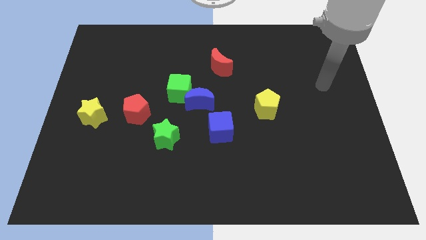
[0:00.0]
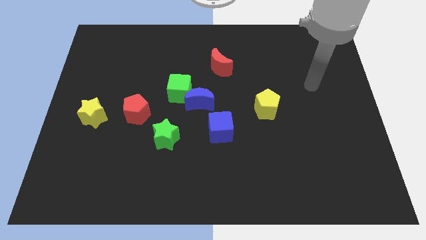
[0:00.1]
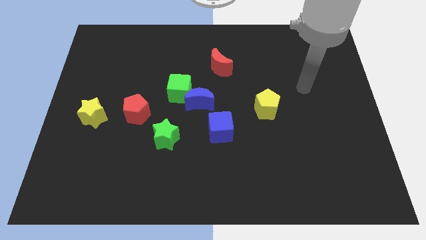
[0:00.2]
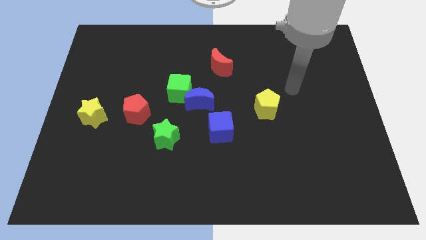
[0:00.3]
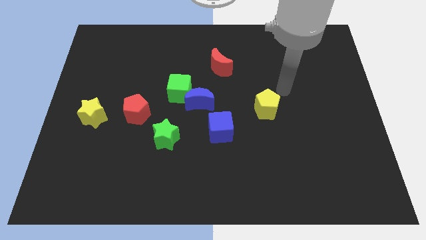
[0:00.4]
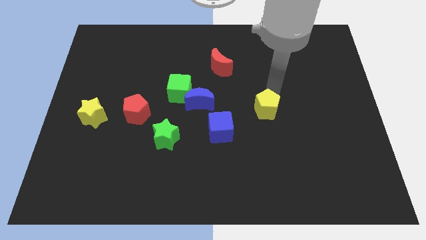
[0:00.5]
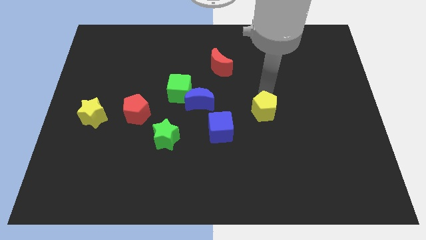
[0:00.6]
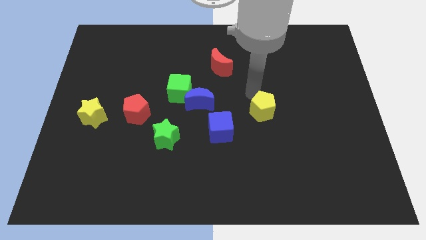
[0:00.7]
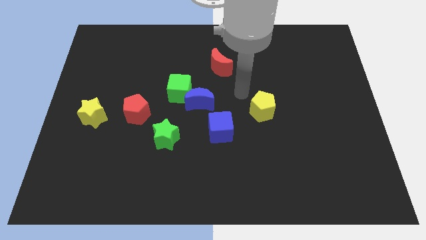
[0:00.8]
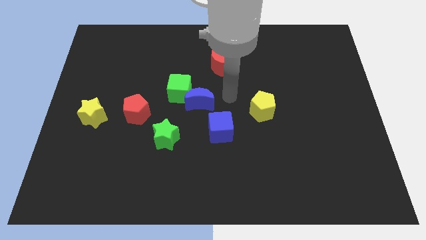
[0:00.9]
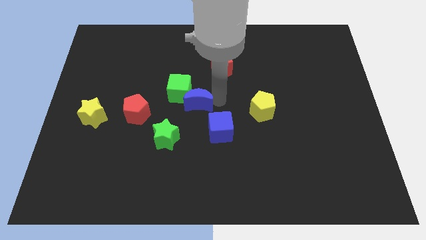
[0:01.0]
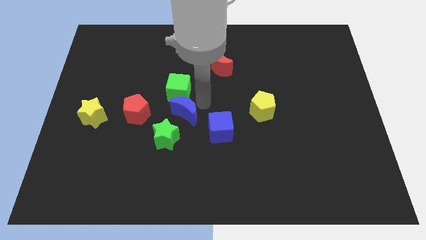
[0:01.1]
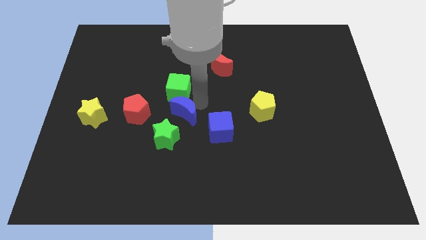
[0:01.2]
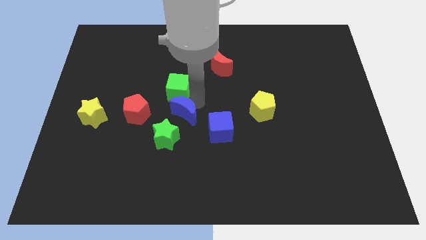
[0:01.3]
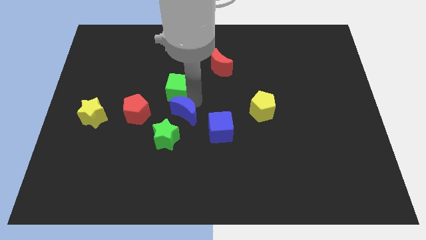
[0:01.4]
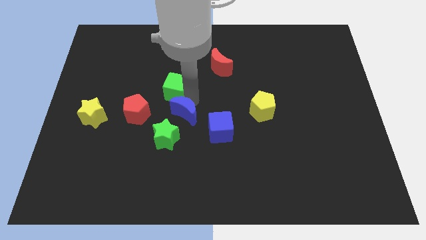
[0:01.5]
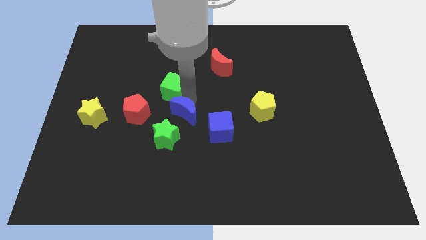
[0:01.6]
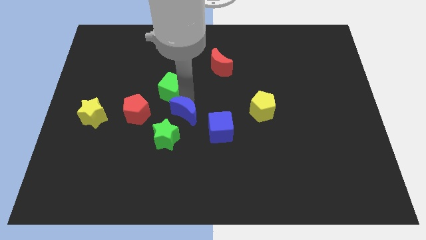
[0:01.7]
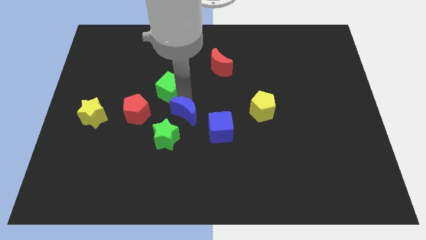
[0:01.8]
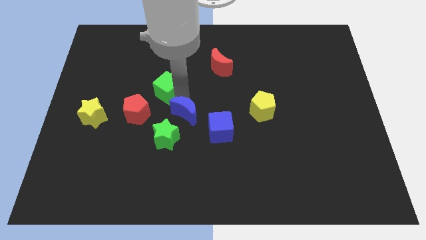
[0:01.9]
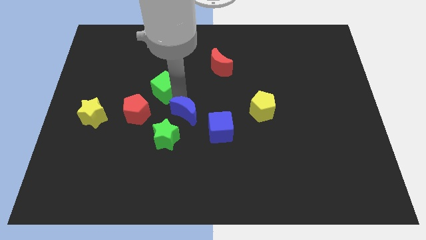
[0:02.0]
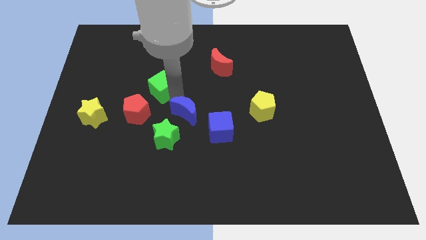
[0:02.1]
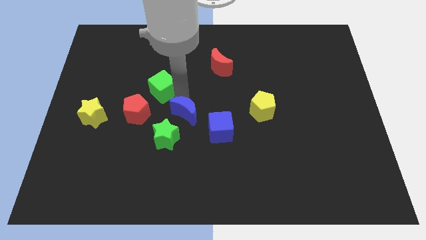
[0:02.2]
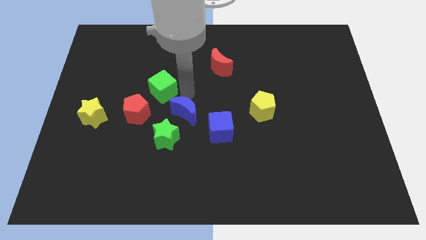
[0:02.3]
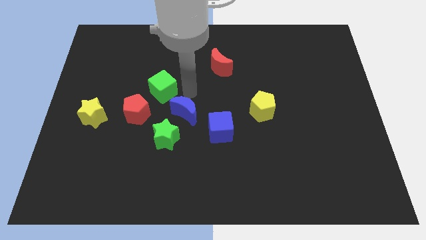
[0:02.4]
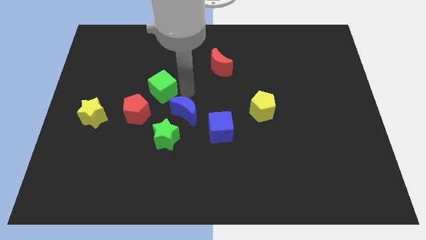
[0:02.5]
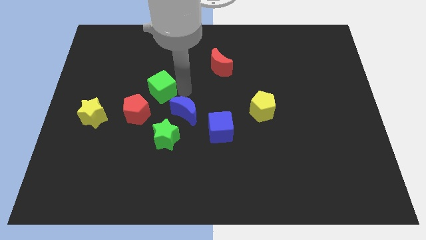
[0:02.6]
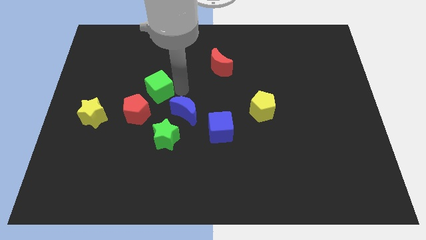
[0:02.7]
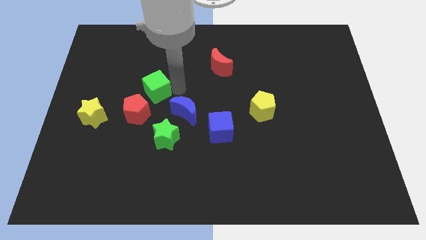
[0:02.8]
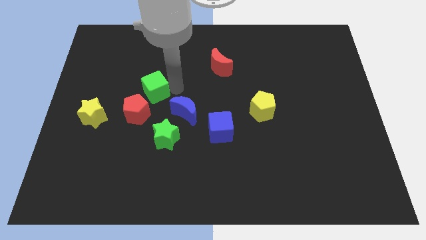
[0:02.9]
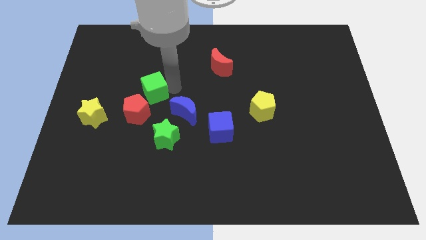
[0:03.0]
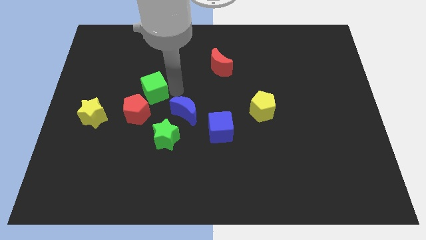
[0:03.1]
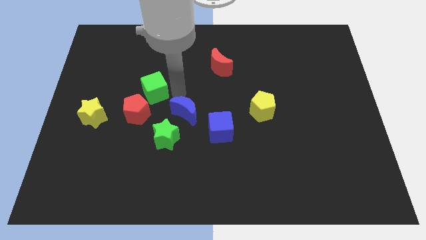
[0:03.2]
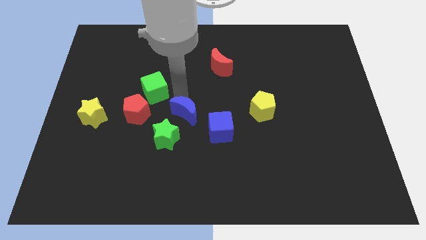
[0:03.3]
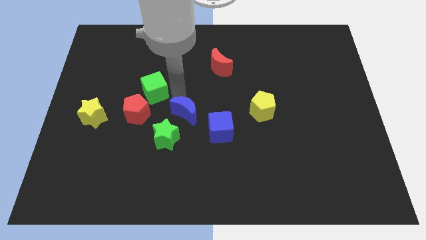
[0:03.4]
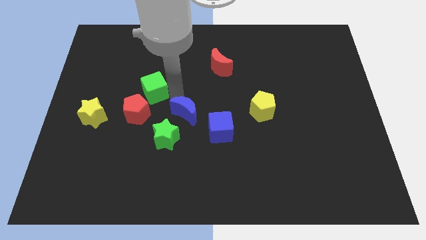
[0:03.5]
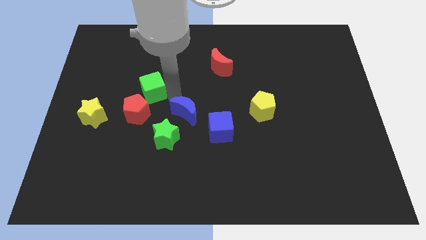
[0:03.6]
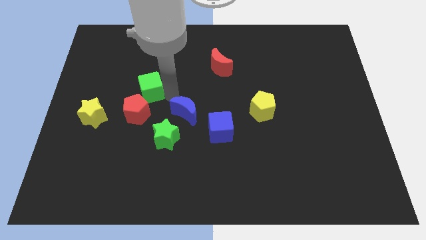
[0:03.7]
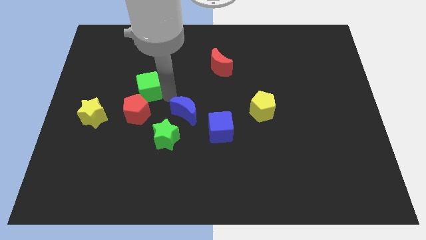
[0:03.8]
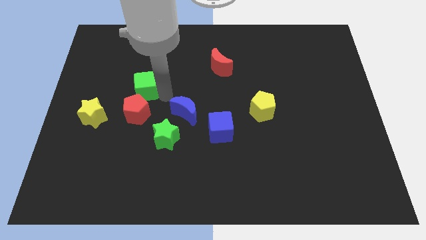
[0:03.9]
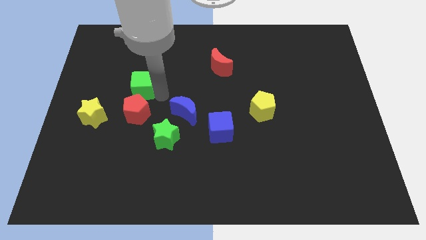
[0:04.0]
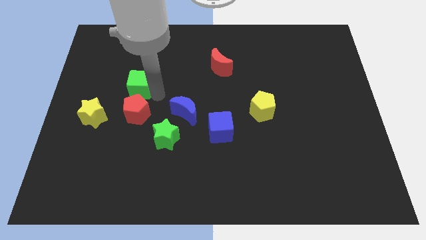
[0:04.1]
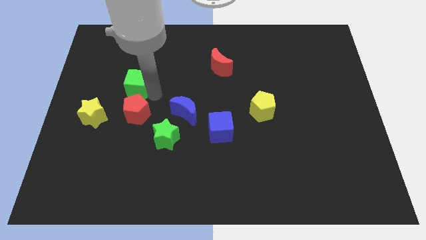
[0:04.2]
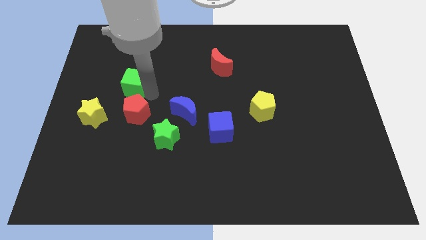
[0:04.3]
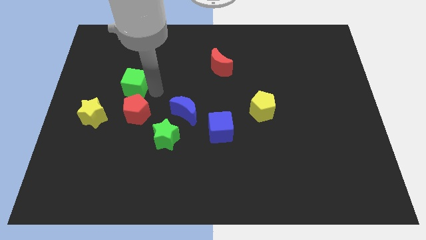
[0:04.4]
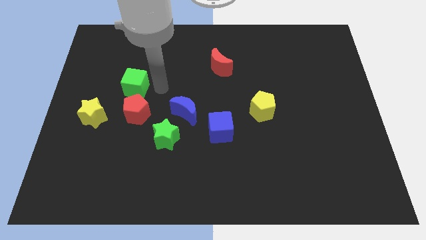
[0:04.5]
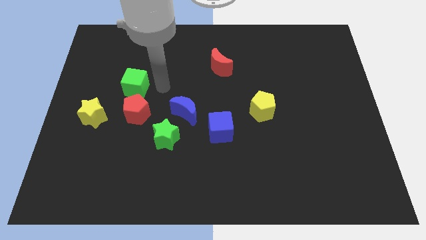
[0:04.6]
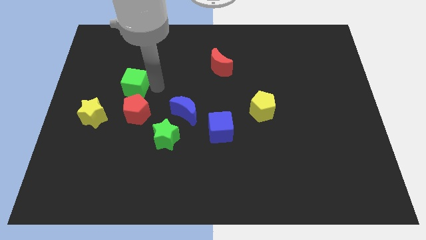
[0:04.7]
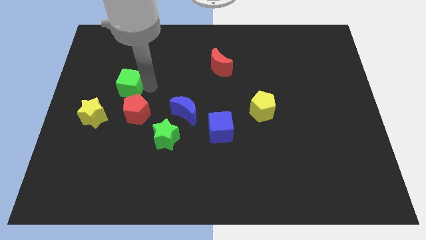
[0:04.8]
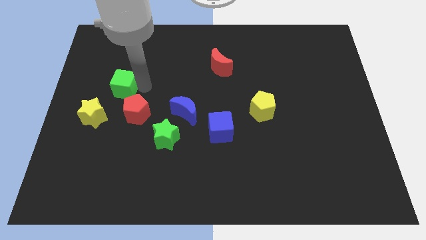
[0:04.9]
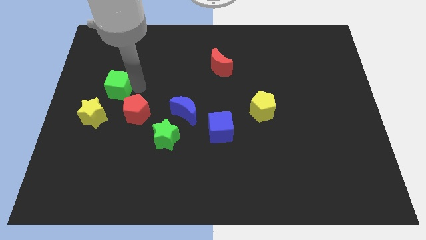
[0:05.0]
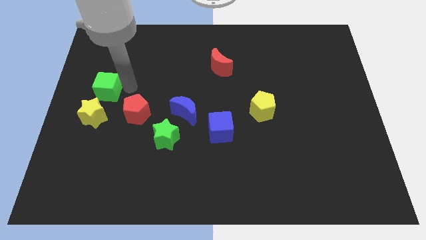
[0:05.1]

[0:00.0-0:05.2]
put the green cube to the left side of the board
